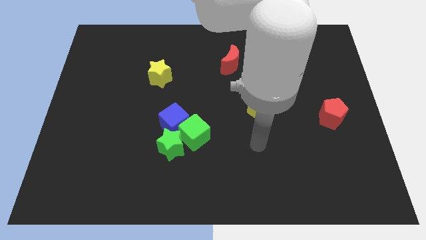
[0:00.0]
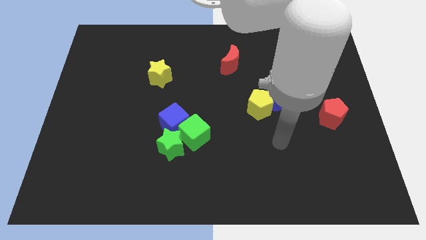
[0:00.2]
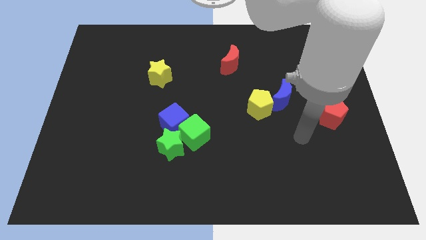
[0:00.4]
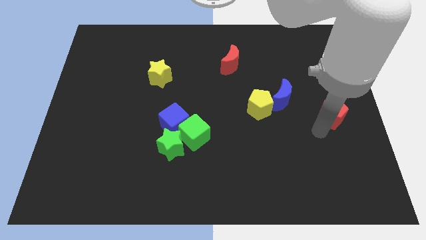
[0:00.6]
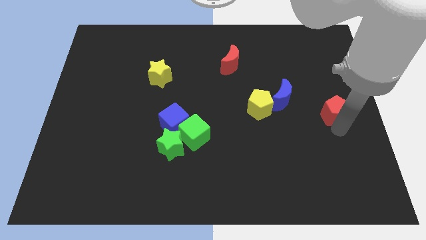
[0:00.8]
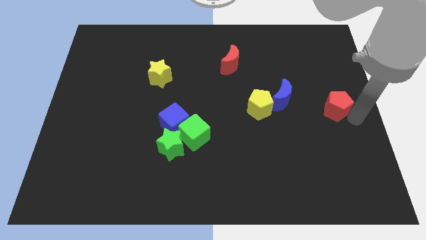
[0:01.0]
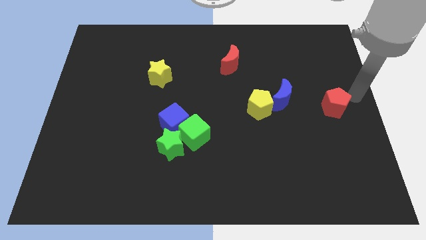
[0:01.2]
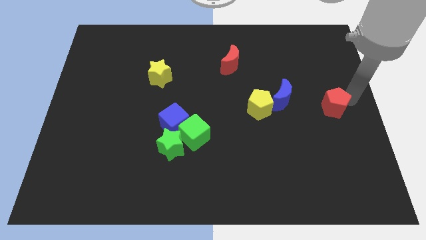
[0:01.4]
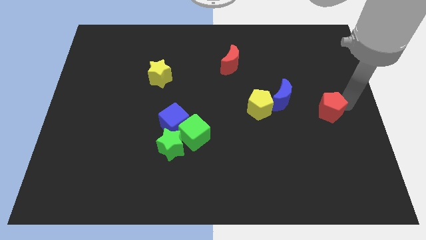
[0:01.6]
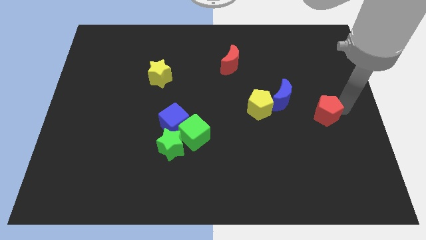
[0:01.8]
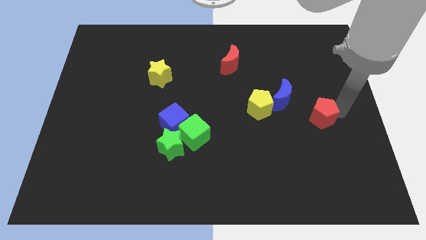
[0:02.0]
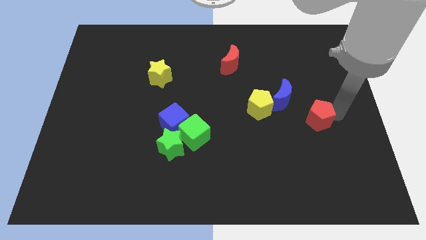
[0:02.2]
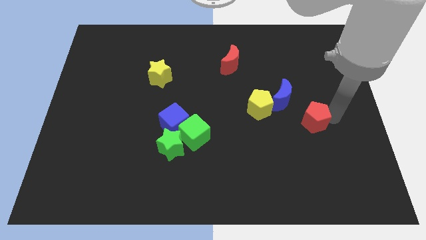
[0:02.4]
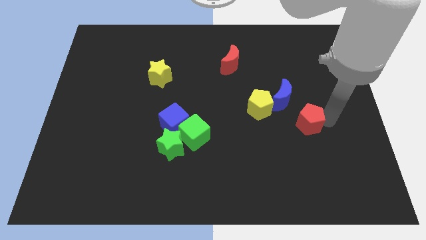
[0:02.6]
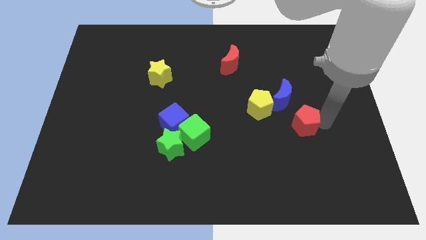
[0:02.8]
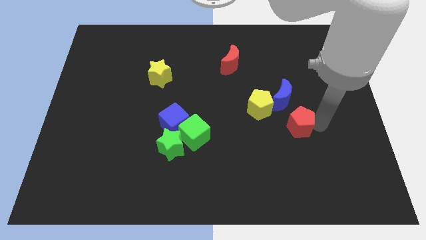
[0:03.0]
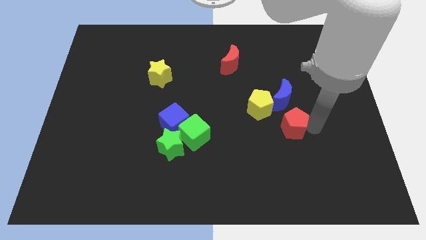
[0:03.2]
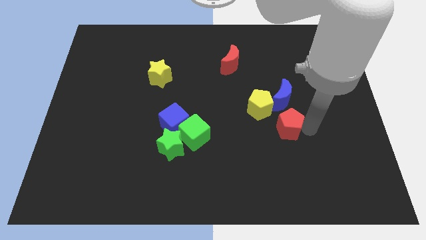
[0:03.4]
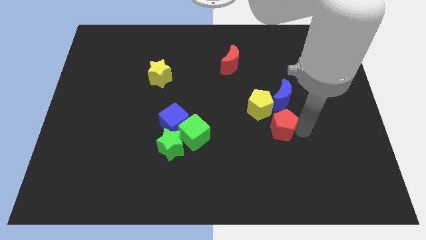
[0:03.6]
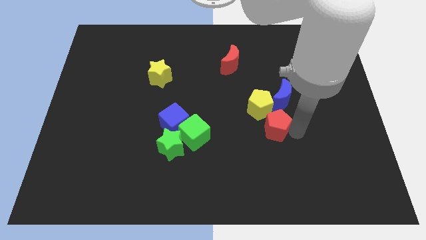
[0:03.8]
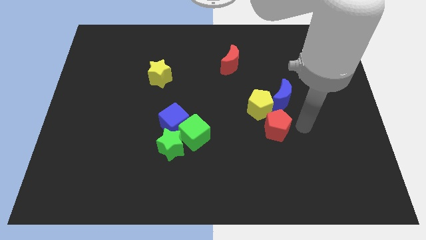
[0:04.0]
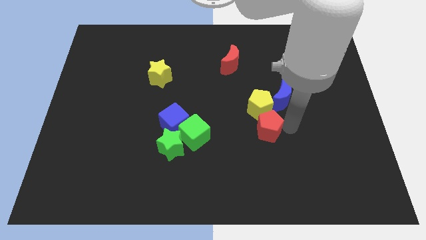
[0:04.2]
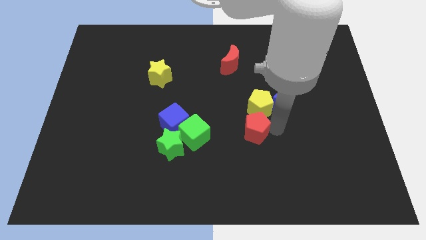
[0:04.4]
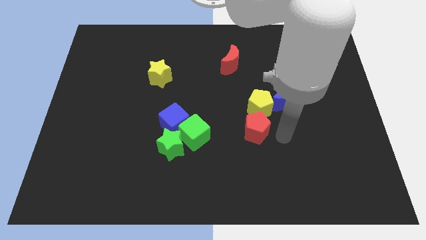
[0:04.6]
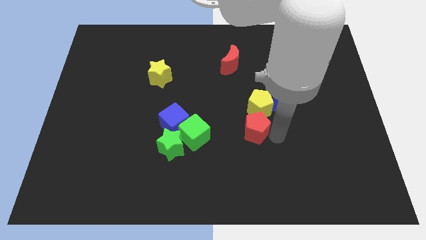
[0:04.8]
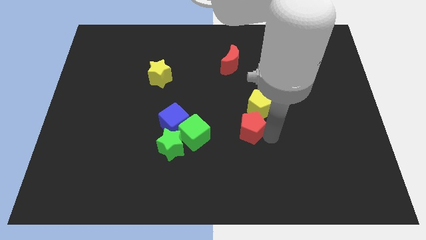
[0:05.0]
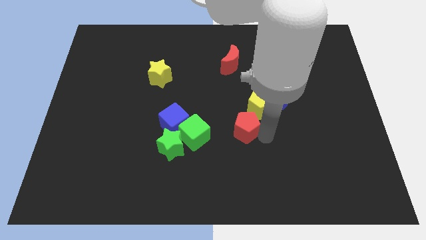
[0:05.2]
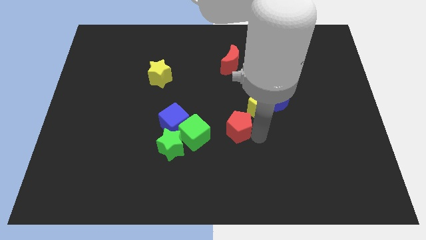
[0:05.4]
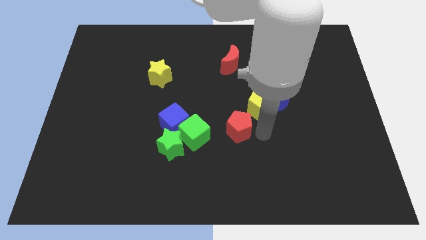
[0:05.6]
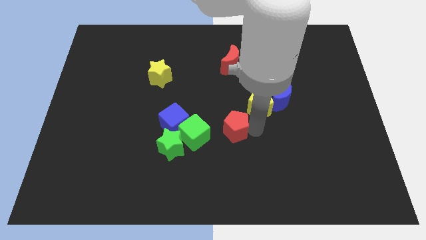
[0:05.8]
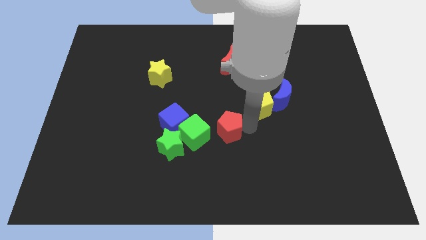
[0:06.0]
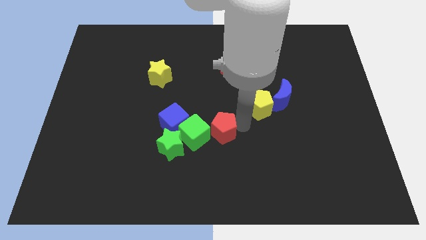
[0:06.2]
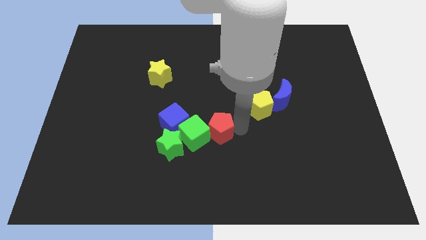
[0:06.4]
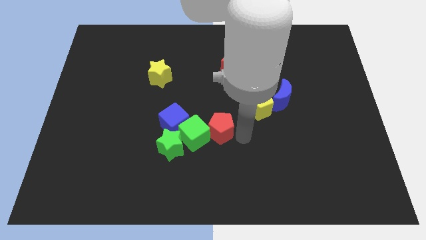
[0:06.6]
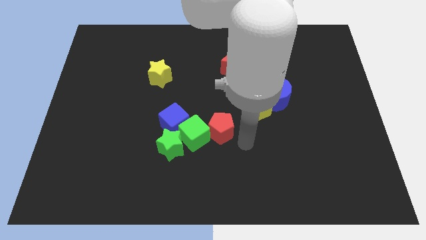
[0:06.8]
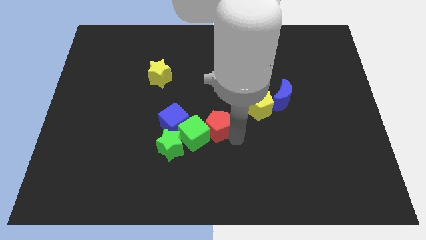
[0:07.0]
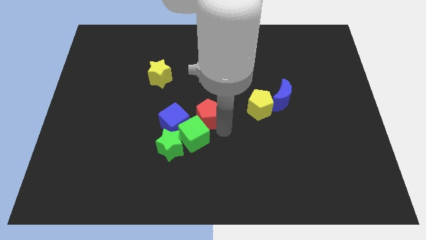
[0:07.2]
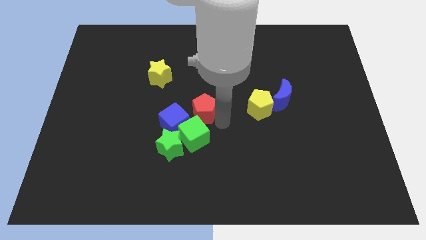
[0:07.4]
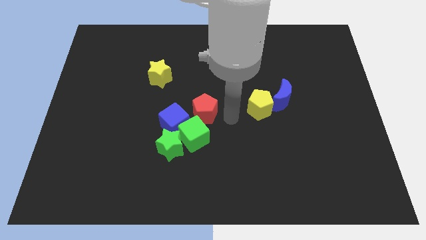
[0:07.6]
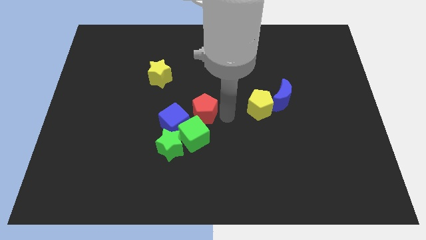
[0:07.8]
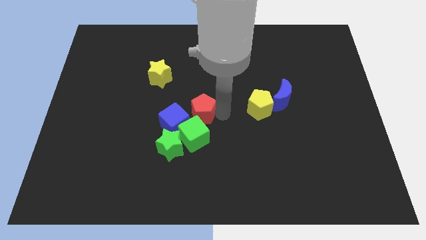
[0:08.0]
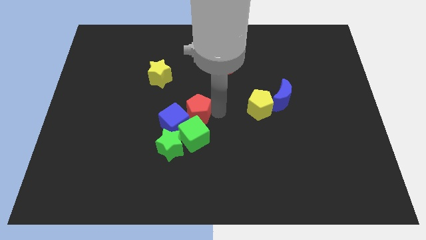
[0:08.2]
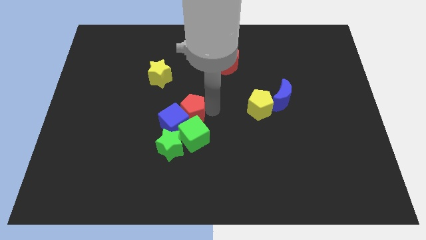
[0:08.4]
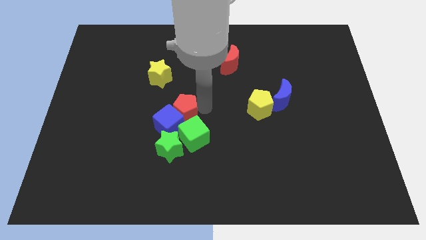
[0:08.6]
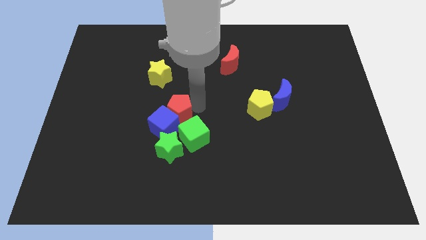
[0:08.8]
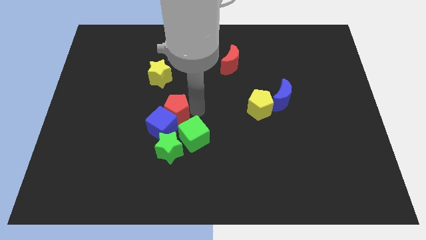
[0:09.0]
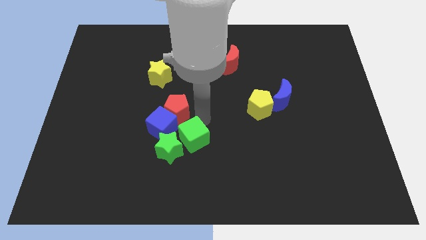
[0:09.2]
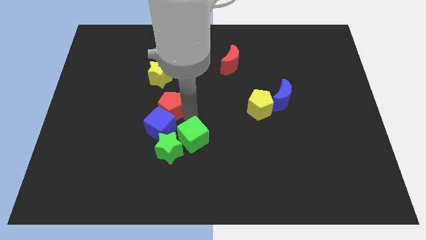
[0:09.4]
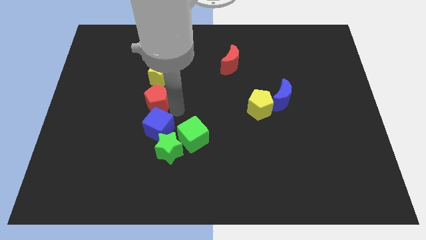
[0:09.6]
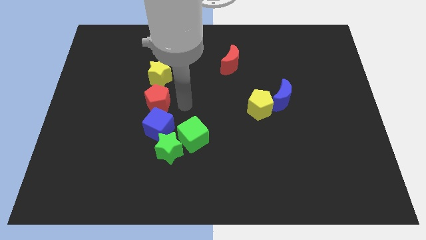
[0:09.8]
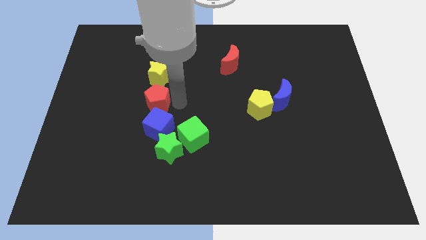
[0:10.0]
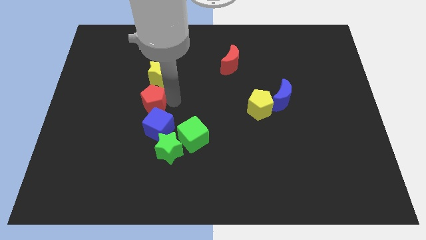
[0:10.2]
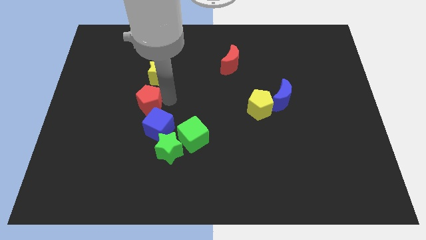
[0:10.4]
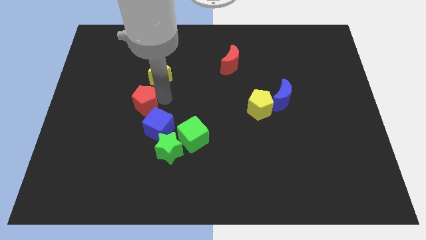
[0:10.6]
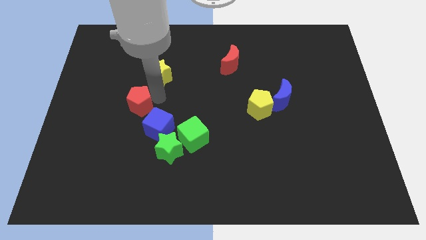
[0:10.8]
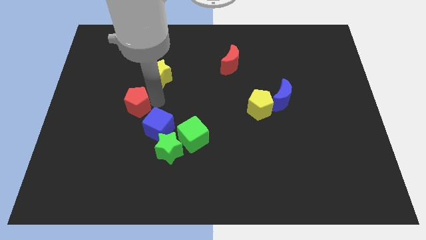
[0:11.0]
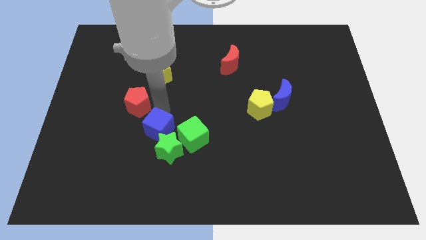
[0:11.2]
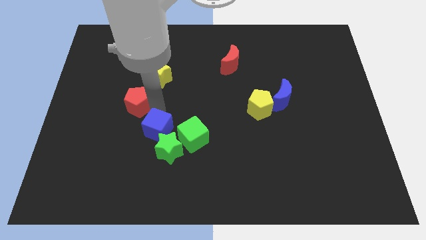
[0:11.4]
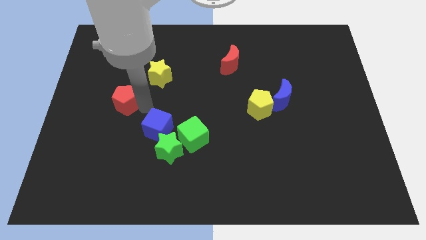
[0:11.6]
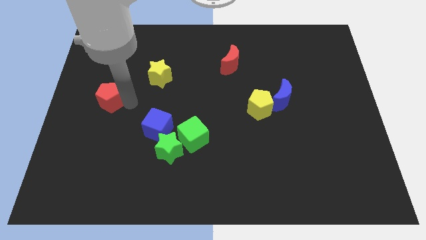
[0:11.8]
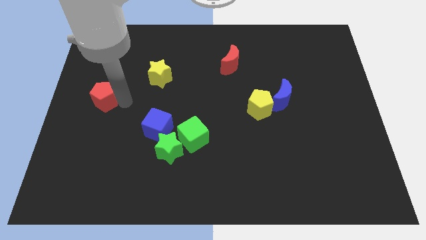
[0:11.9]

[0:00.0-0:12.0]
slide the red pentagon to the left side of the board

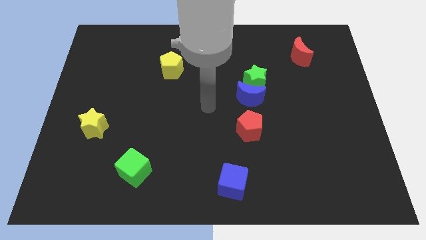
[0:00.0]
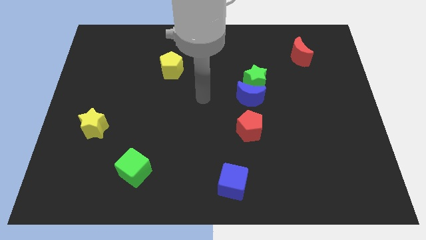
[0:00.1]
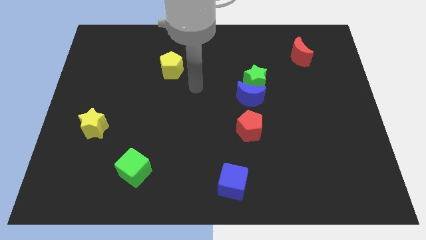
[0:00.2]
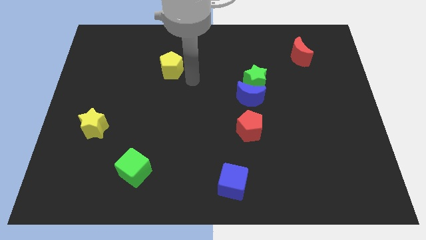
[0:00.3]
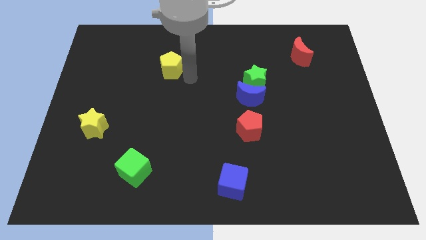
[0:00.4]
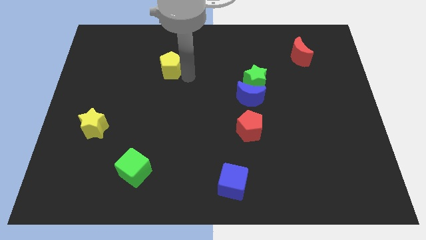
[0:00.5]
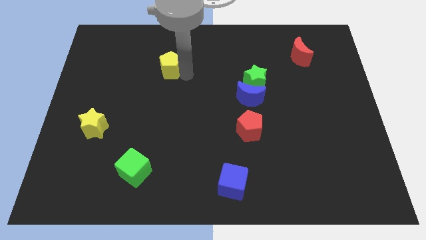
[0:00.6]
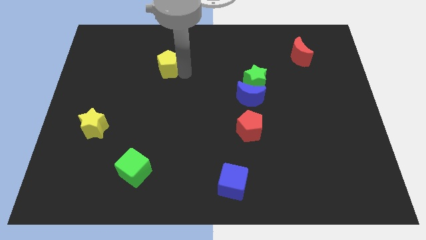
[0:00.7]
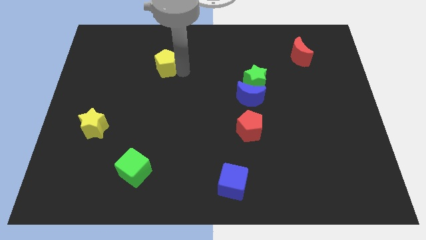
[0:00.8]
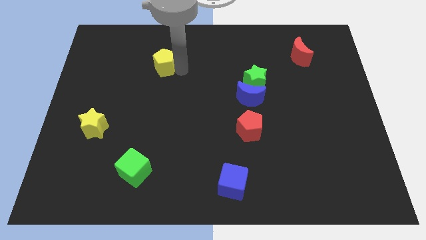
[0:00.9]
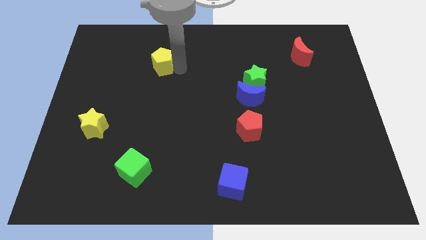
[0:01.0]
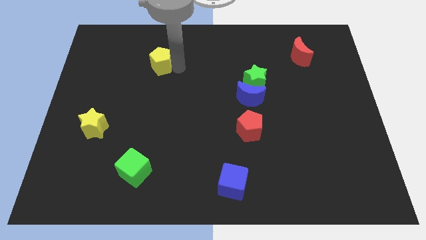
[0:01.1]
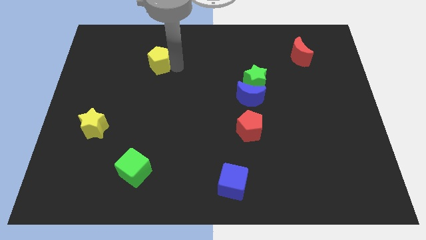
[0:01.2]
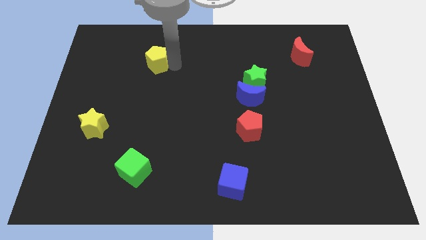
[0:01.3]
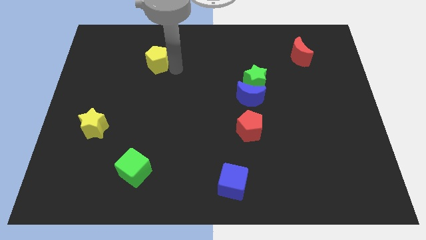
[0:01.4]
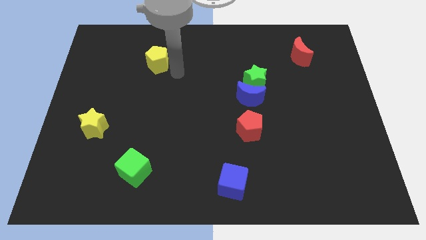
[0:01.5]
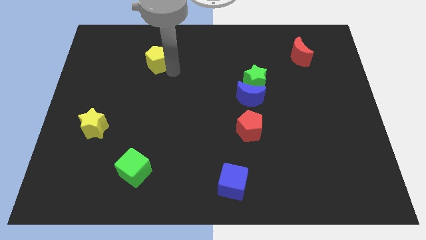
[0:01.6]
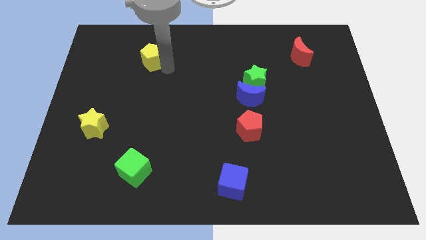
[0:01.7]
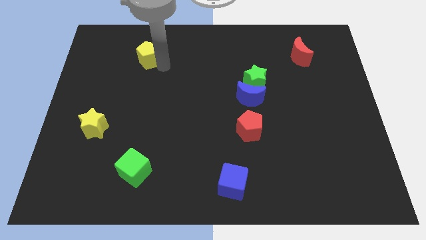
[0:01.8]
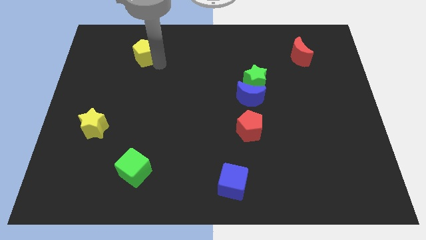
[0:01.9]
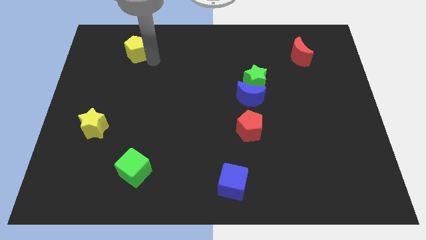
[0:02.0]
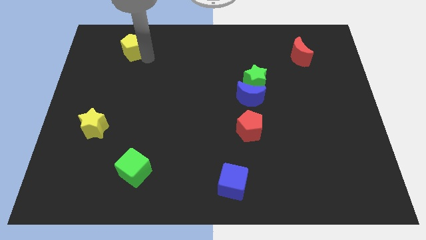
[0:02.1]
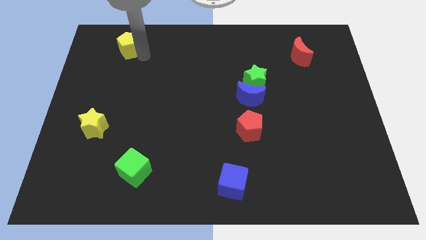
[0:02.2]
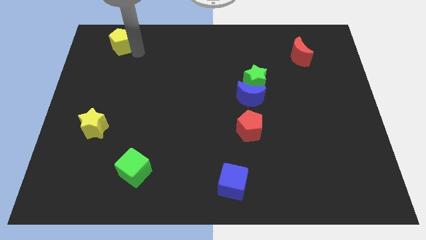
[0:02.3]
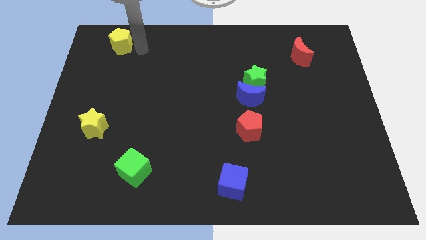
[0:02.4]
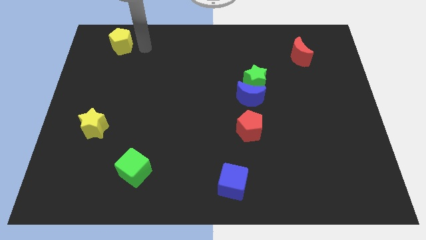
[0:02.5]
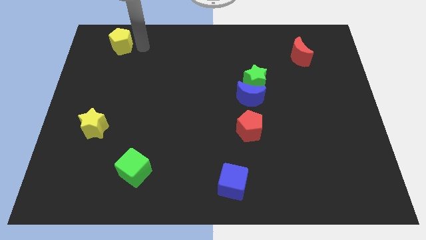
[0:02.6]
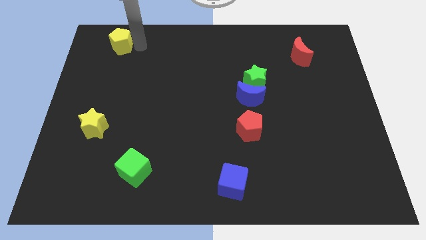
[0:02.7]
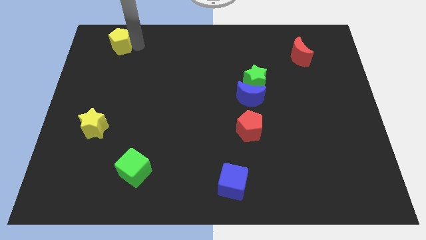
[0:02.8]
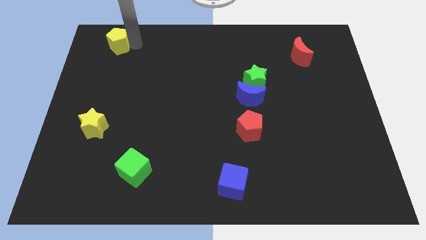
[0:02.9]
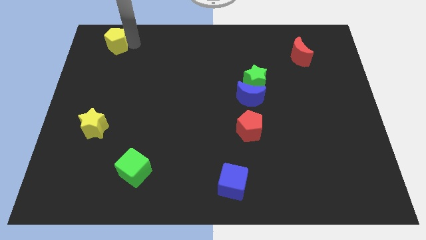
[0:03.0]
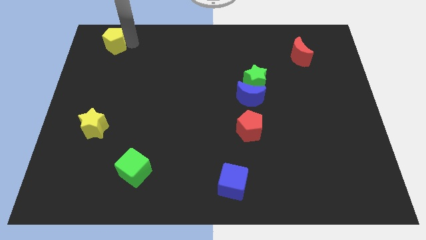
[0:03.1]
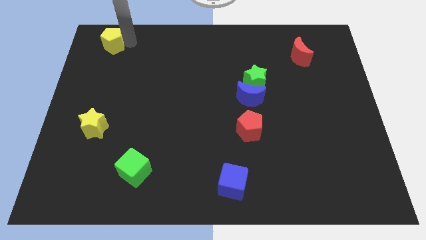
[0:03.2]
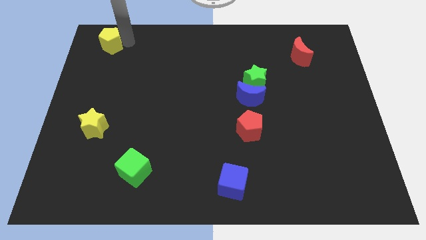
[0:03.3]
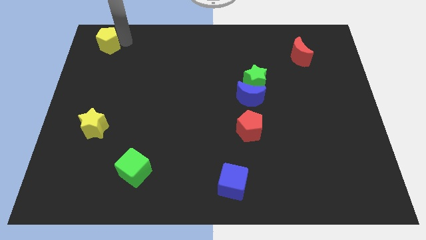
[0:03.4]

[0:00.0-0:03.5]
slide the yellow pentagon to the upper left corner
